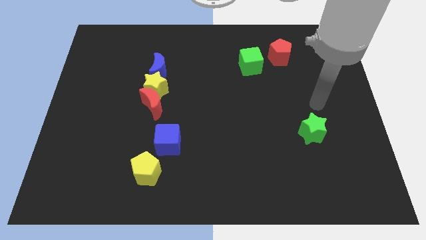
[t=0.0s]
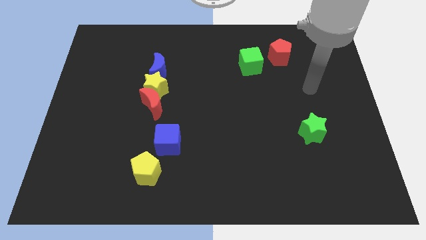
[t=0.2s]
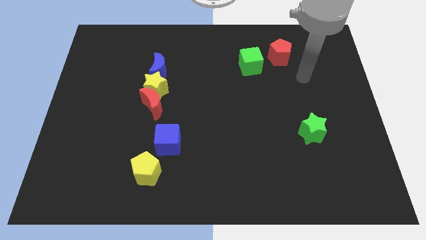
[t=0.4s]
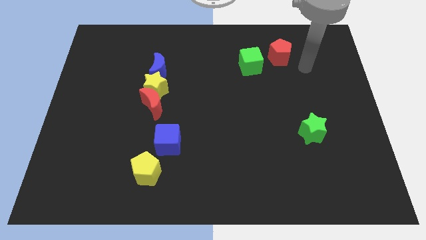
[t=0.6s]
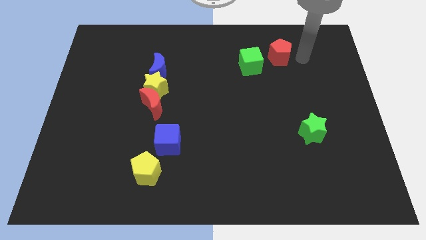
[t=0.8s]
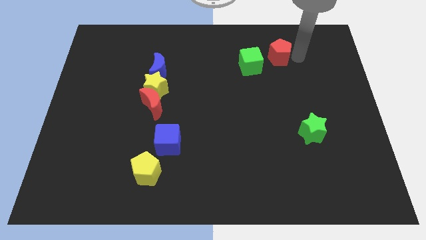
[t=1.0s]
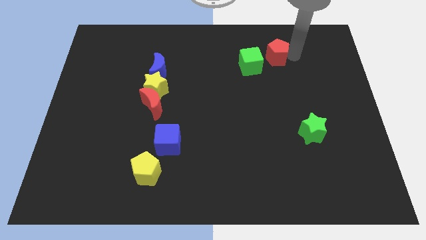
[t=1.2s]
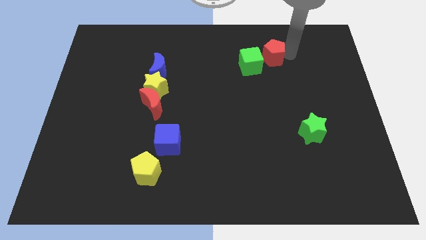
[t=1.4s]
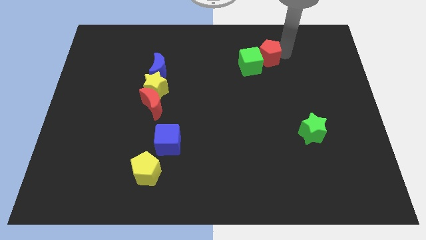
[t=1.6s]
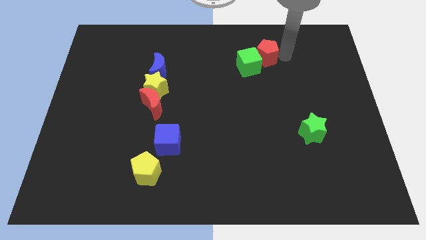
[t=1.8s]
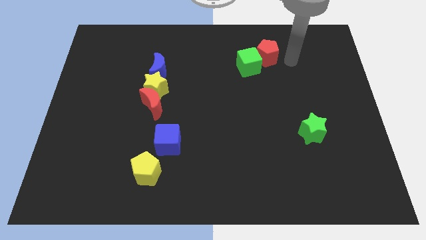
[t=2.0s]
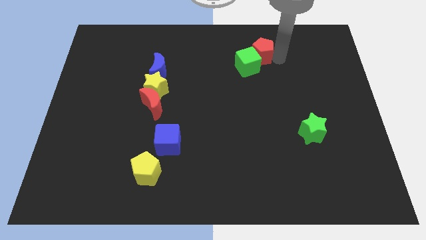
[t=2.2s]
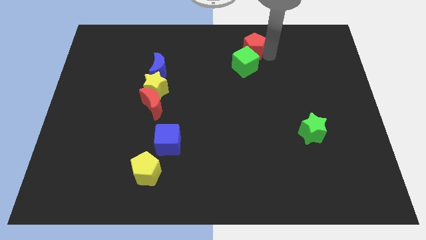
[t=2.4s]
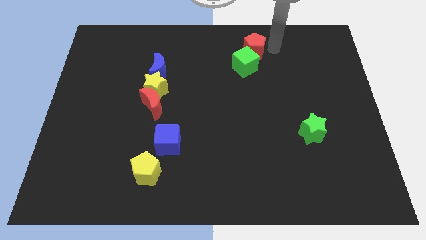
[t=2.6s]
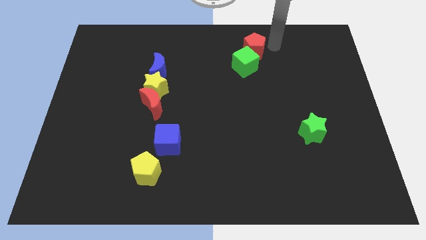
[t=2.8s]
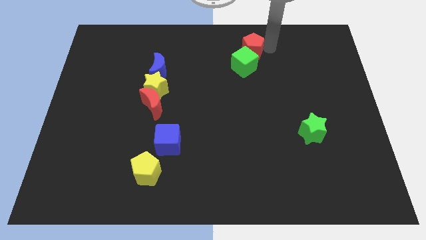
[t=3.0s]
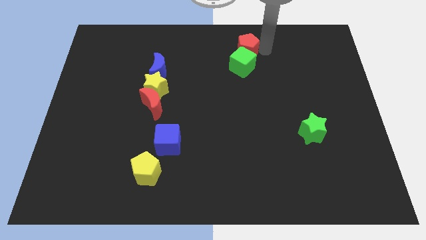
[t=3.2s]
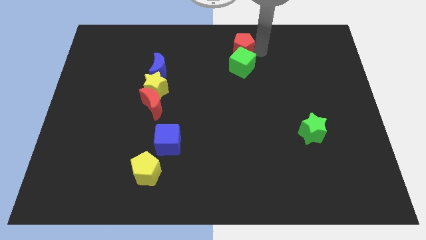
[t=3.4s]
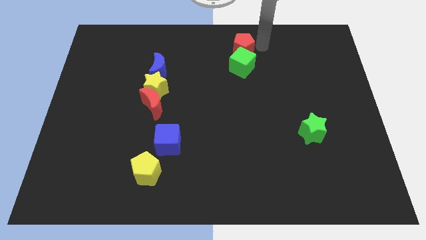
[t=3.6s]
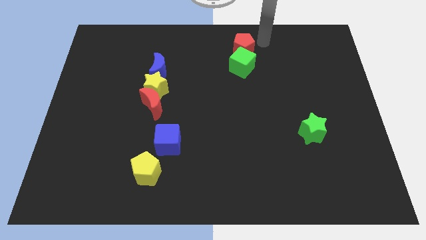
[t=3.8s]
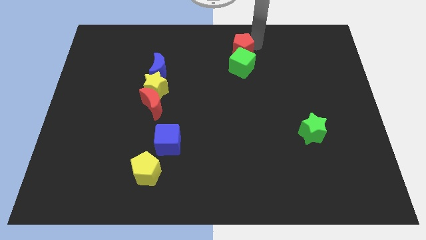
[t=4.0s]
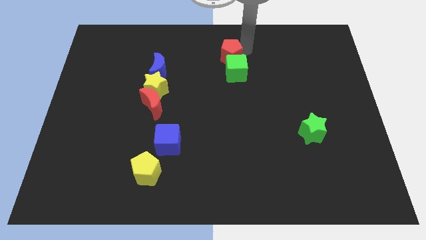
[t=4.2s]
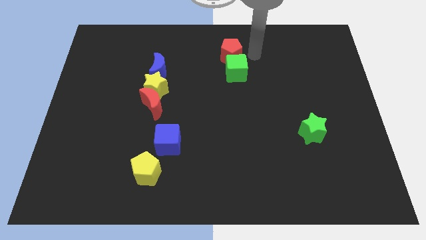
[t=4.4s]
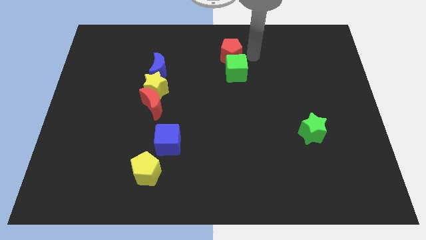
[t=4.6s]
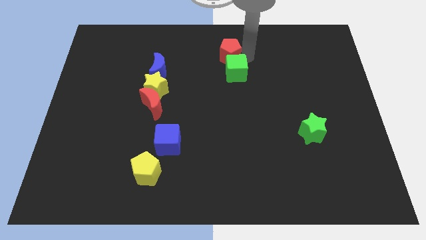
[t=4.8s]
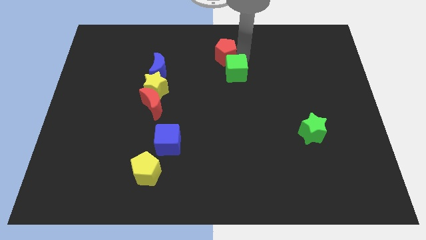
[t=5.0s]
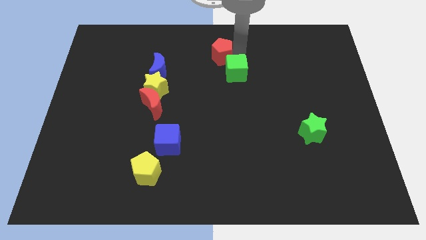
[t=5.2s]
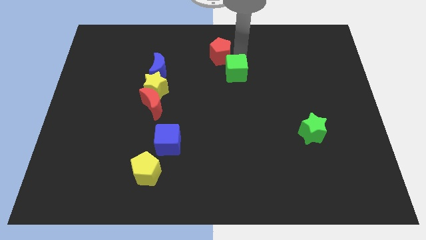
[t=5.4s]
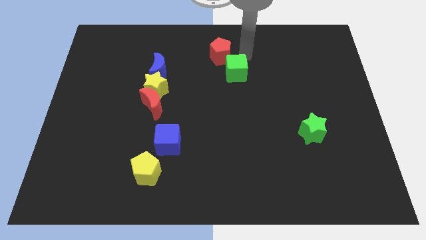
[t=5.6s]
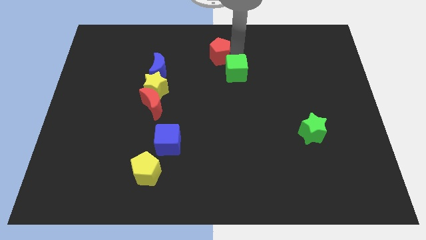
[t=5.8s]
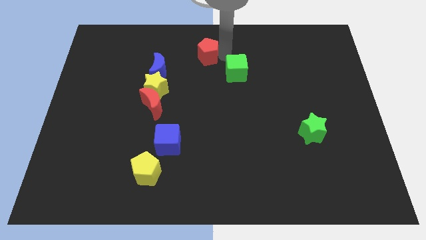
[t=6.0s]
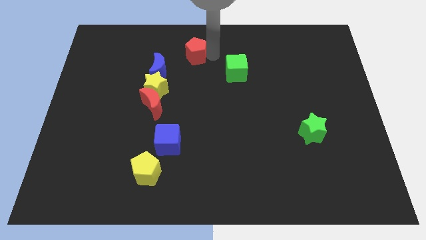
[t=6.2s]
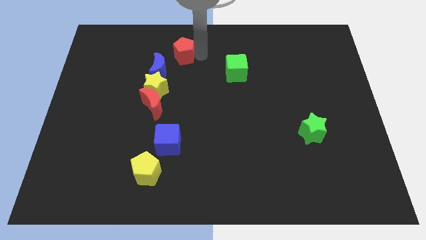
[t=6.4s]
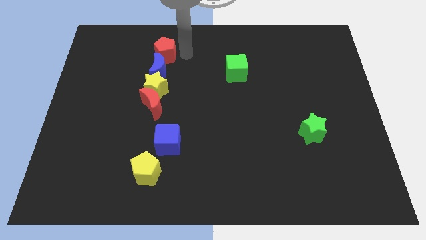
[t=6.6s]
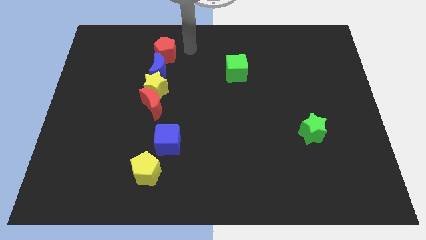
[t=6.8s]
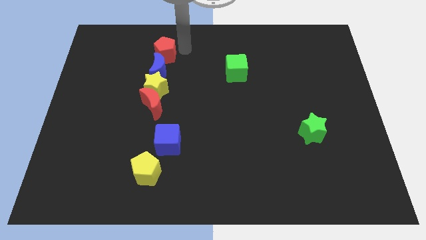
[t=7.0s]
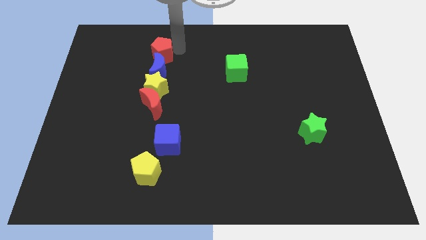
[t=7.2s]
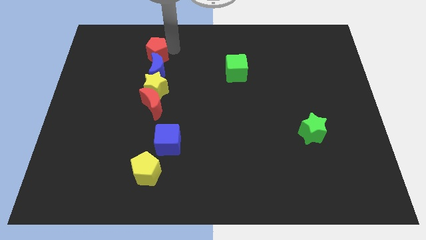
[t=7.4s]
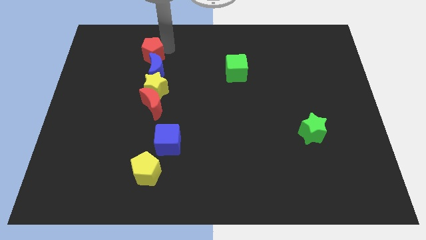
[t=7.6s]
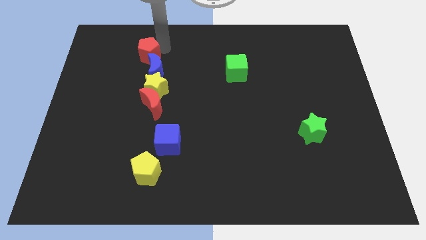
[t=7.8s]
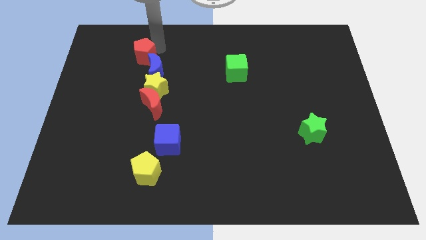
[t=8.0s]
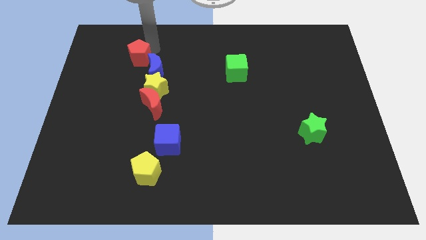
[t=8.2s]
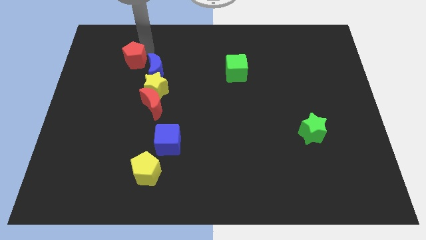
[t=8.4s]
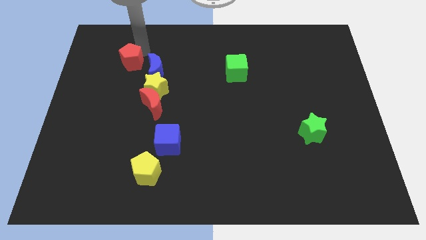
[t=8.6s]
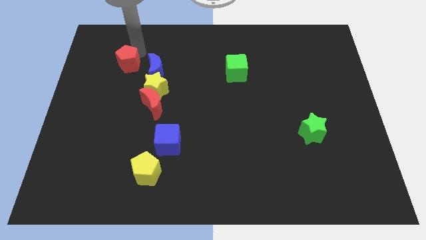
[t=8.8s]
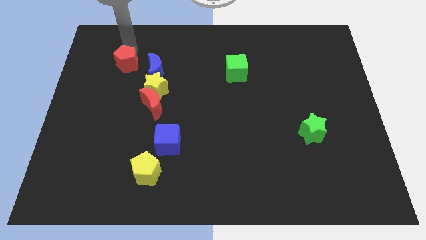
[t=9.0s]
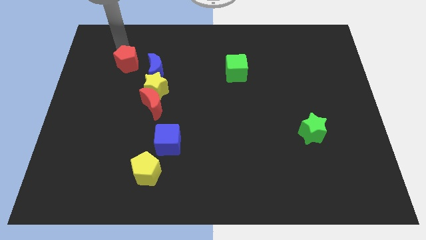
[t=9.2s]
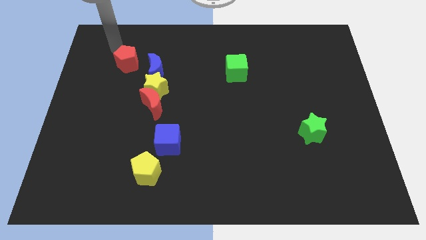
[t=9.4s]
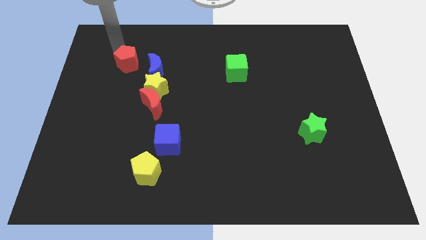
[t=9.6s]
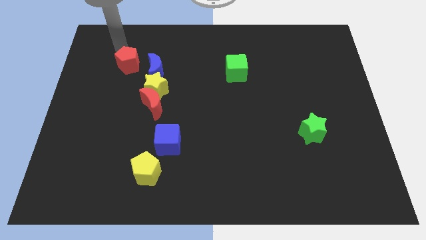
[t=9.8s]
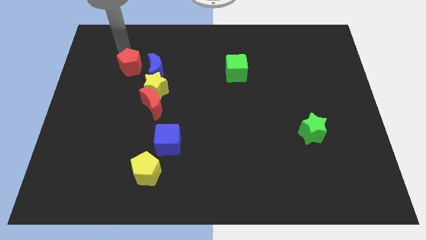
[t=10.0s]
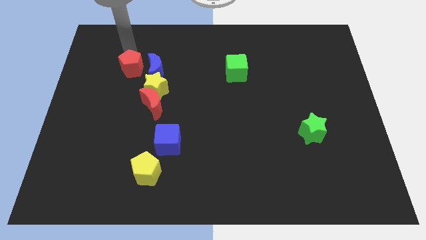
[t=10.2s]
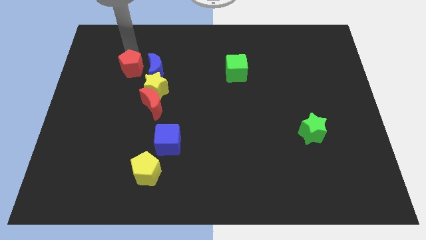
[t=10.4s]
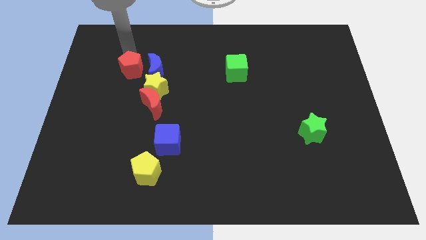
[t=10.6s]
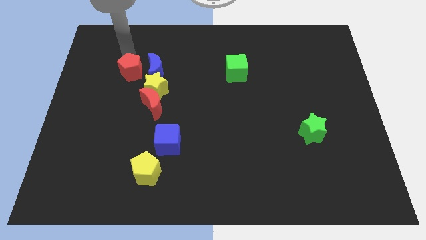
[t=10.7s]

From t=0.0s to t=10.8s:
move the red pentagon to the bottom left of the blue moon

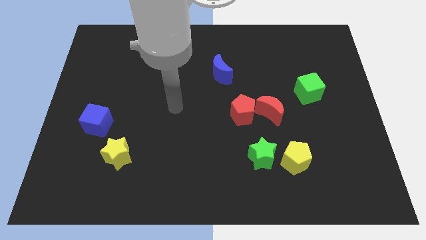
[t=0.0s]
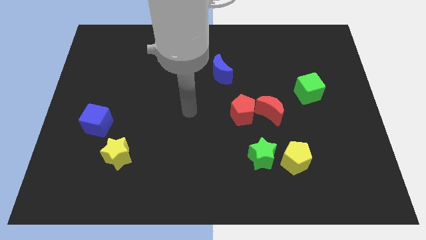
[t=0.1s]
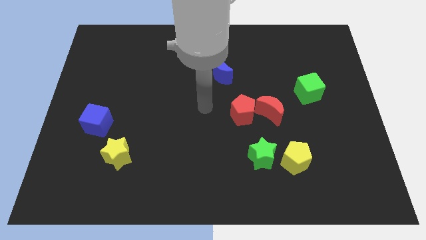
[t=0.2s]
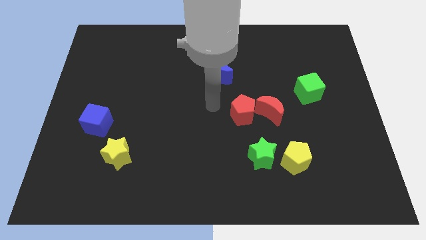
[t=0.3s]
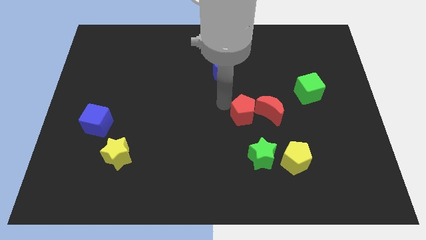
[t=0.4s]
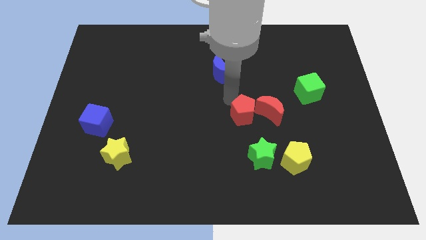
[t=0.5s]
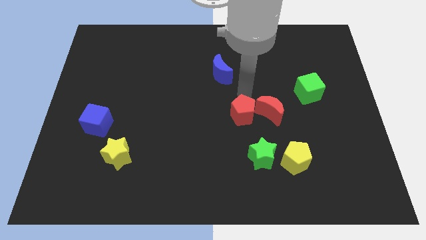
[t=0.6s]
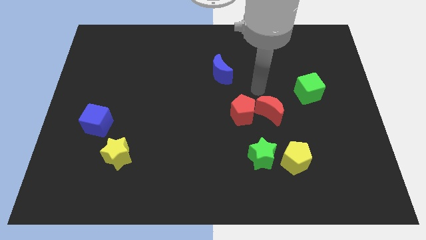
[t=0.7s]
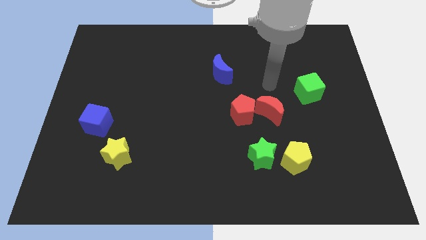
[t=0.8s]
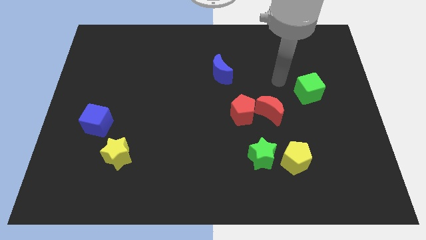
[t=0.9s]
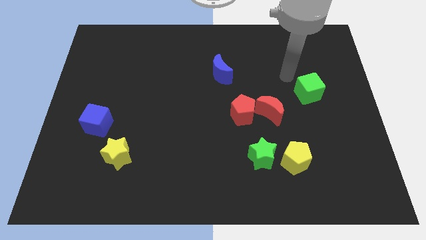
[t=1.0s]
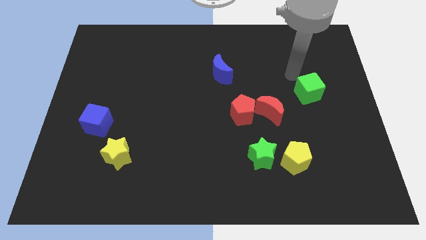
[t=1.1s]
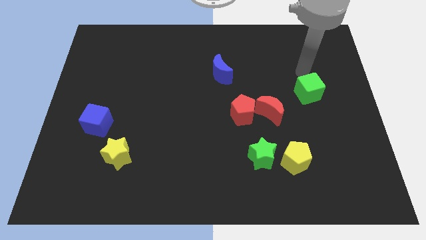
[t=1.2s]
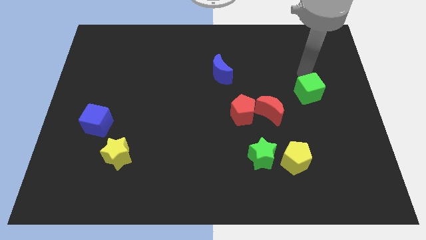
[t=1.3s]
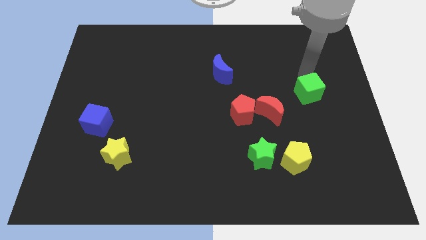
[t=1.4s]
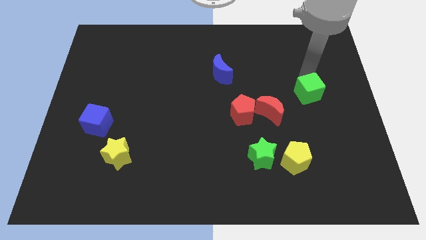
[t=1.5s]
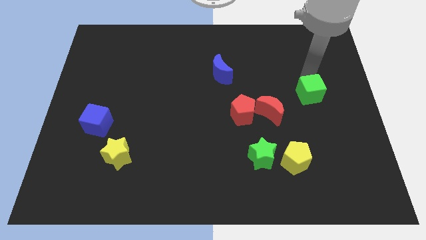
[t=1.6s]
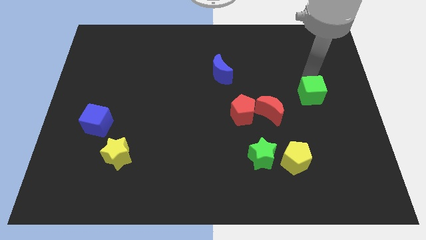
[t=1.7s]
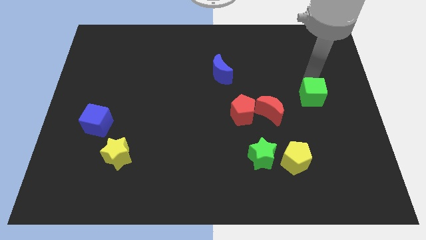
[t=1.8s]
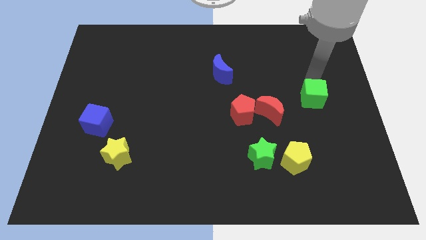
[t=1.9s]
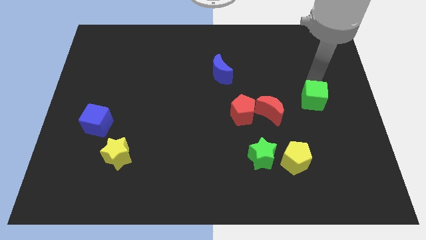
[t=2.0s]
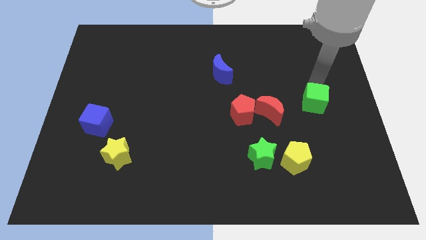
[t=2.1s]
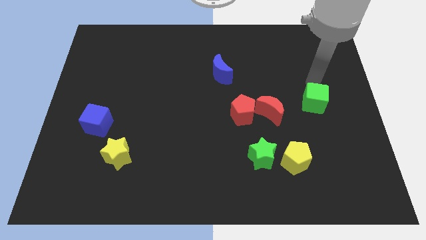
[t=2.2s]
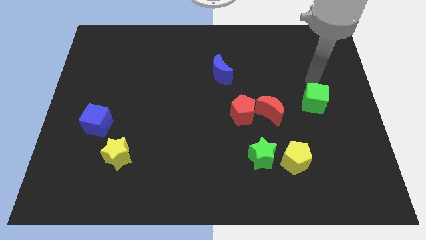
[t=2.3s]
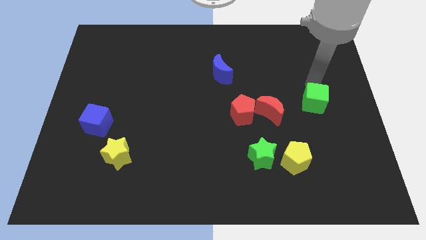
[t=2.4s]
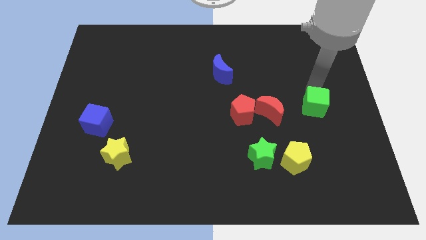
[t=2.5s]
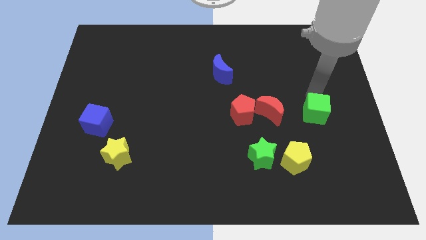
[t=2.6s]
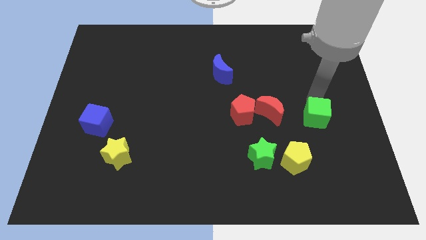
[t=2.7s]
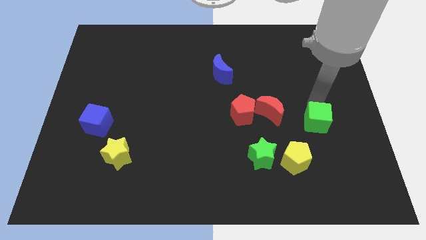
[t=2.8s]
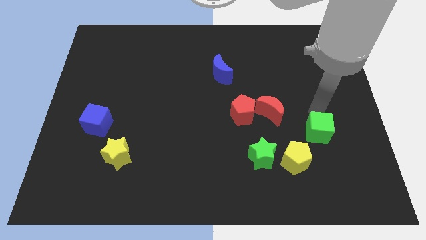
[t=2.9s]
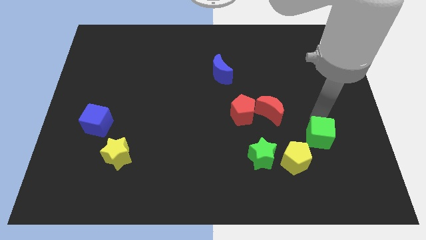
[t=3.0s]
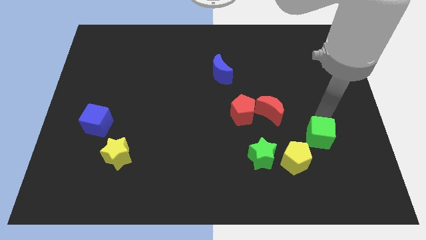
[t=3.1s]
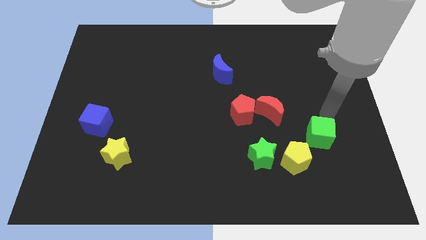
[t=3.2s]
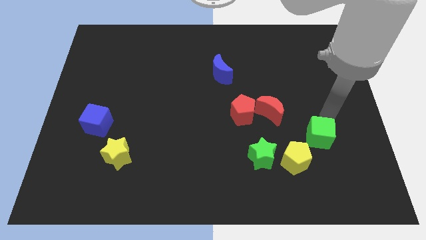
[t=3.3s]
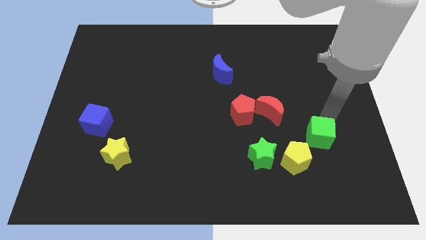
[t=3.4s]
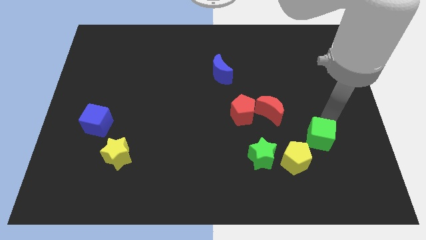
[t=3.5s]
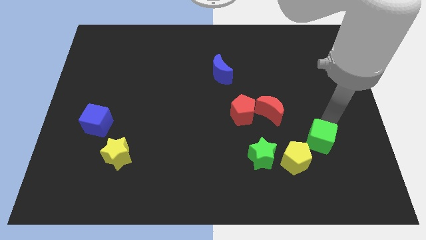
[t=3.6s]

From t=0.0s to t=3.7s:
move the green cube just right of the green star
